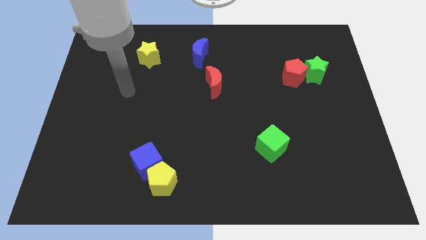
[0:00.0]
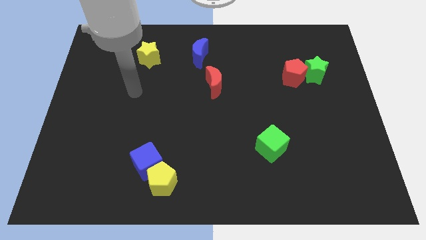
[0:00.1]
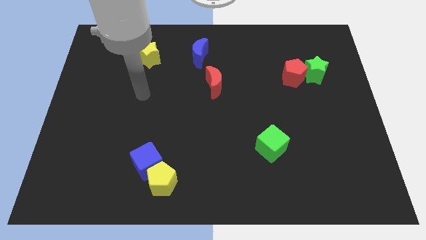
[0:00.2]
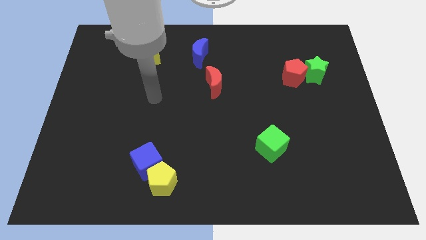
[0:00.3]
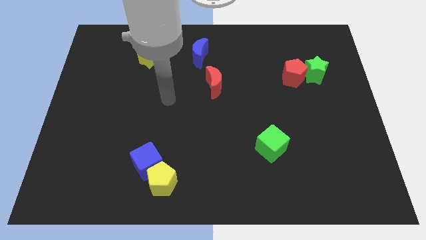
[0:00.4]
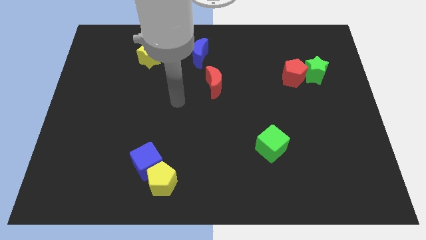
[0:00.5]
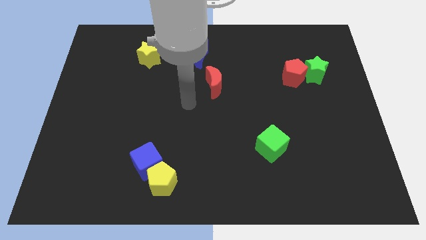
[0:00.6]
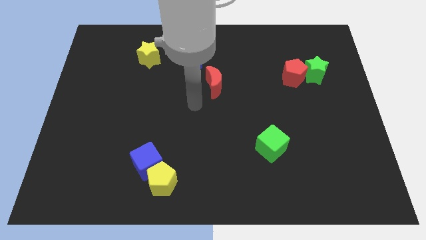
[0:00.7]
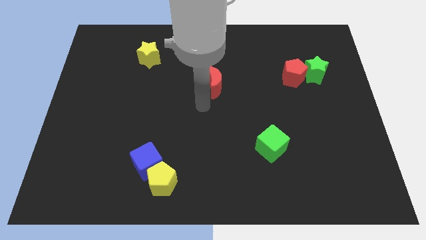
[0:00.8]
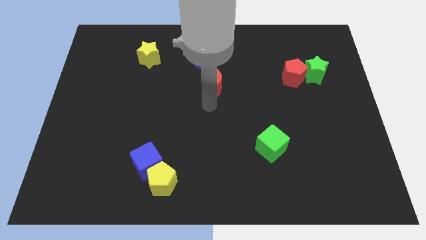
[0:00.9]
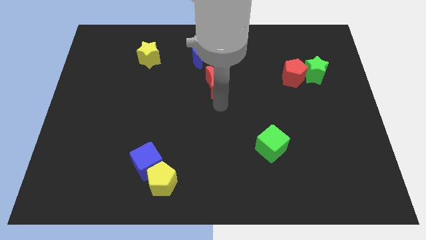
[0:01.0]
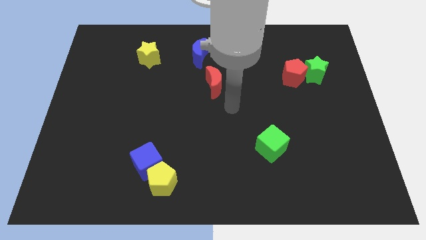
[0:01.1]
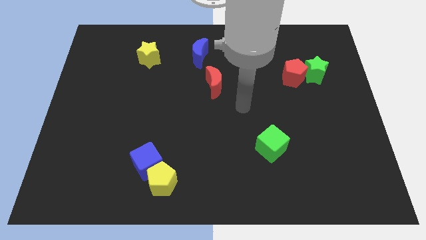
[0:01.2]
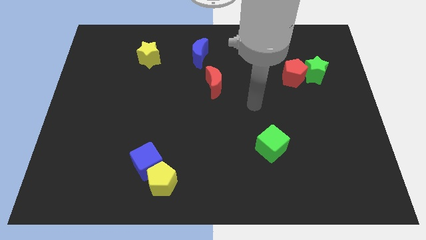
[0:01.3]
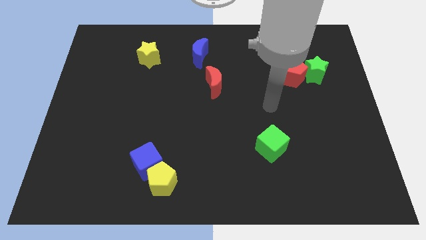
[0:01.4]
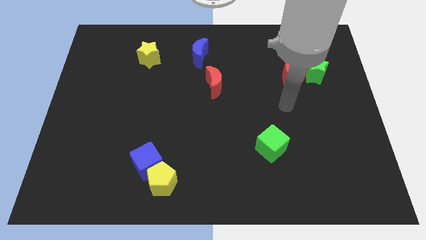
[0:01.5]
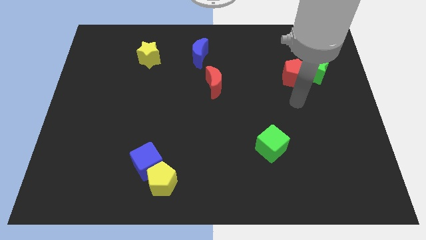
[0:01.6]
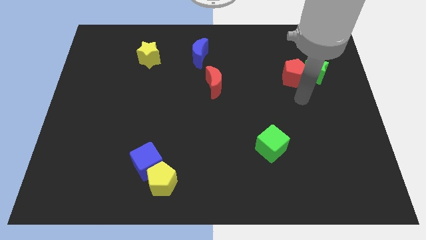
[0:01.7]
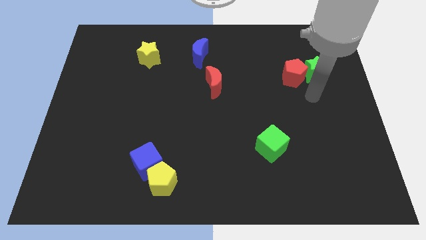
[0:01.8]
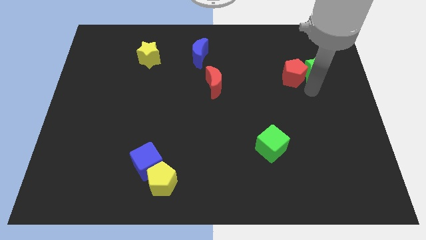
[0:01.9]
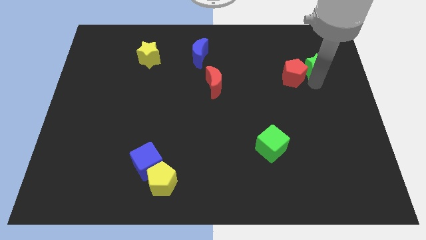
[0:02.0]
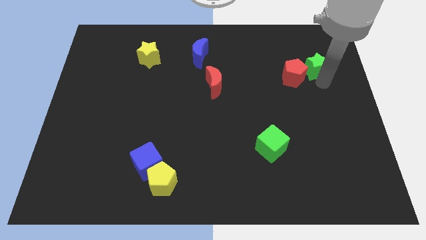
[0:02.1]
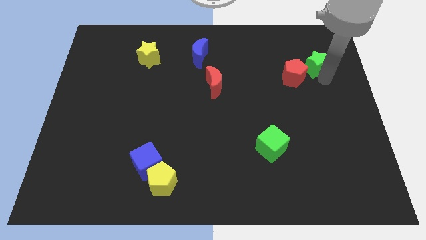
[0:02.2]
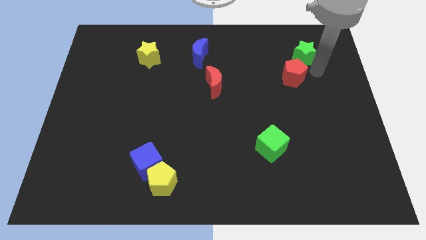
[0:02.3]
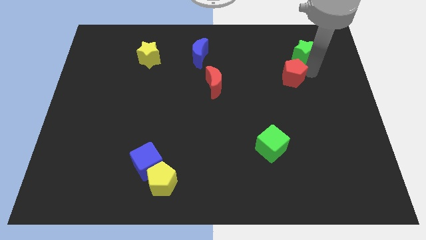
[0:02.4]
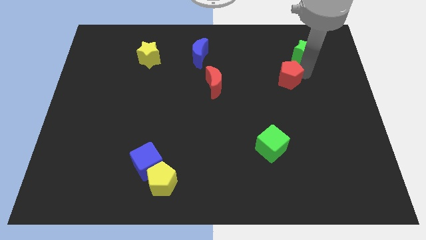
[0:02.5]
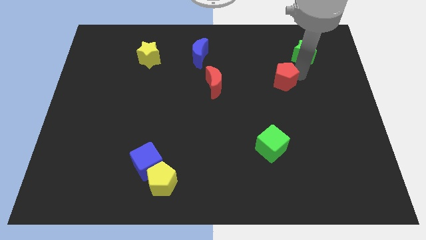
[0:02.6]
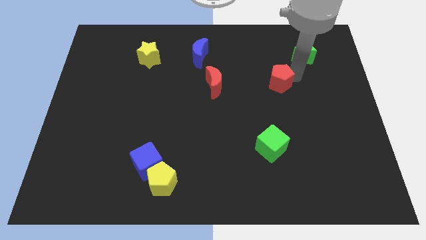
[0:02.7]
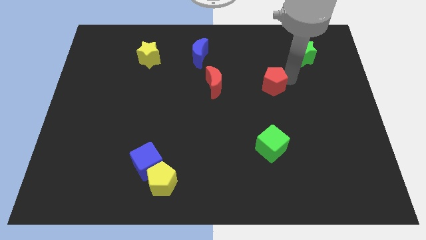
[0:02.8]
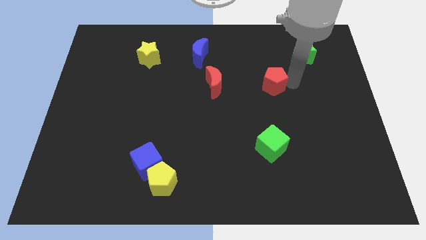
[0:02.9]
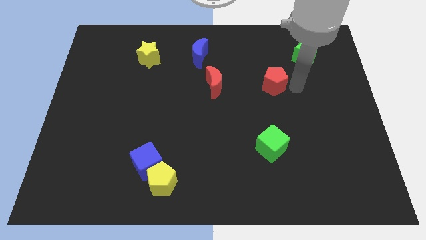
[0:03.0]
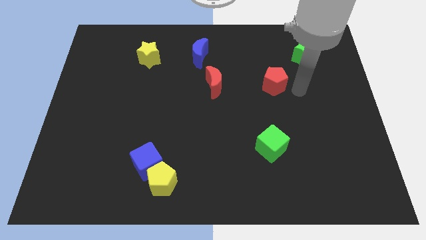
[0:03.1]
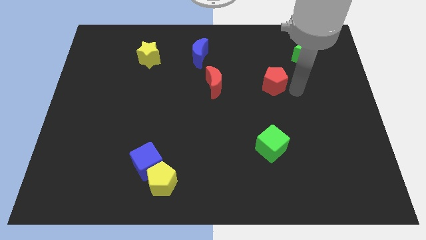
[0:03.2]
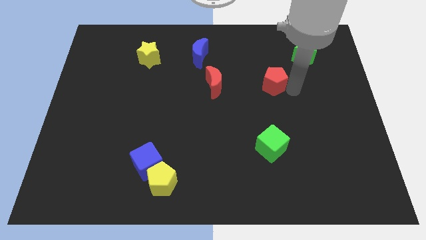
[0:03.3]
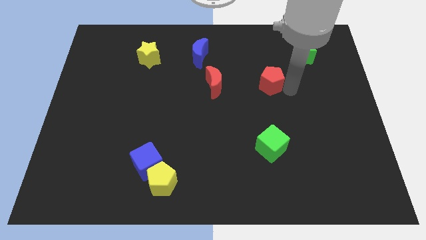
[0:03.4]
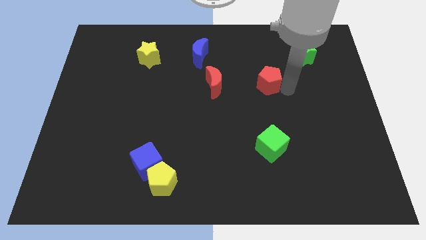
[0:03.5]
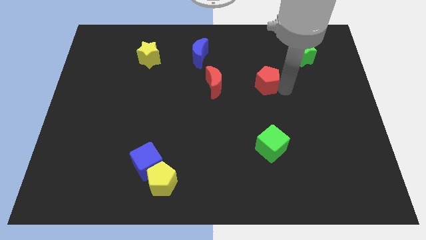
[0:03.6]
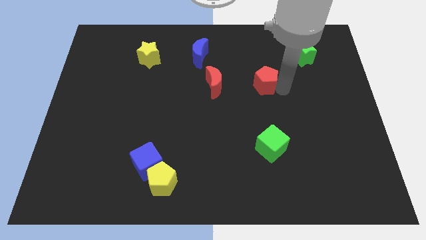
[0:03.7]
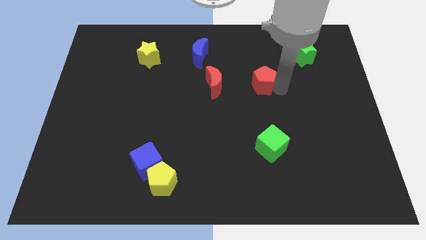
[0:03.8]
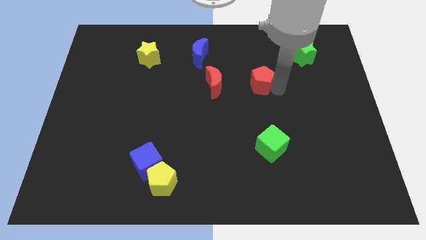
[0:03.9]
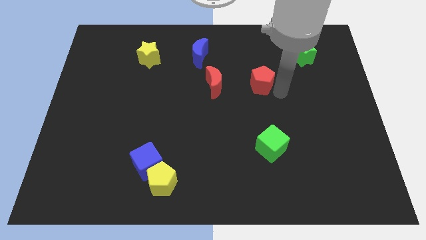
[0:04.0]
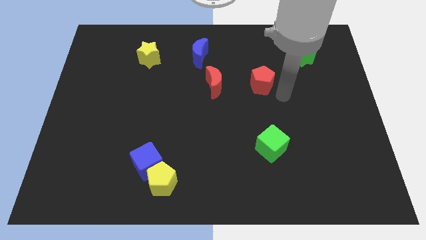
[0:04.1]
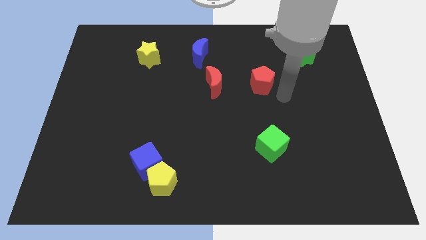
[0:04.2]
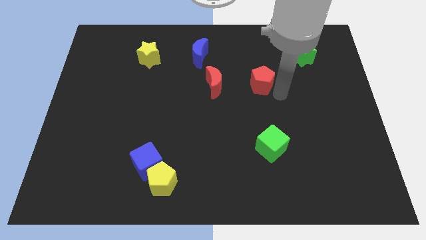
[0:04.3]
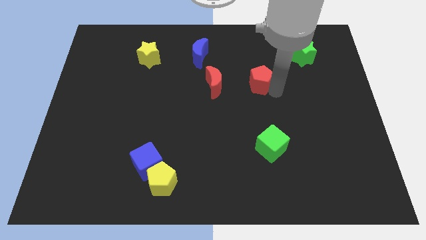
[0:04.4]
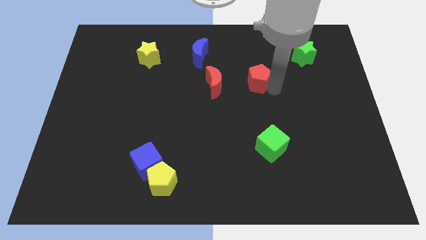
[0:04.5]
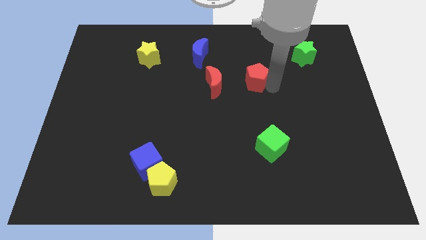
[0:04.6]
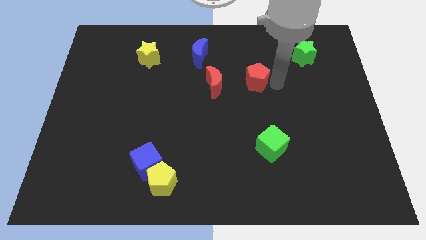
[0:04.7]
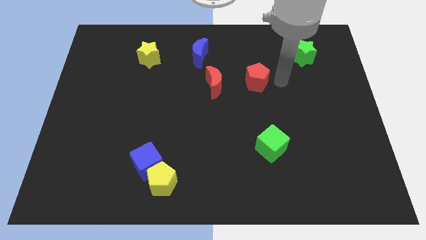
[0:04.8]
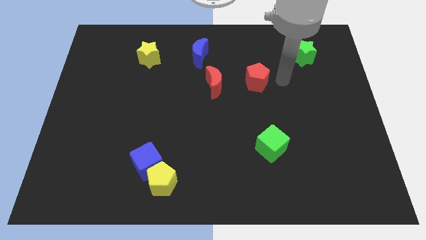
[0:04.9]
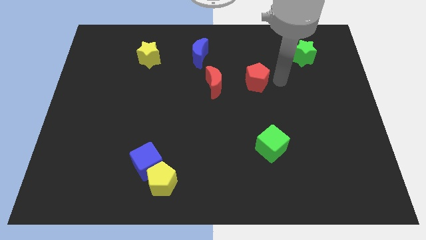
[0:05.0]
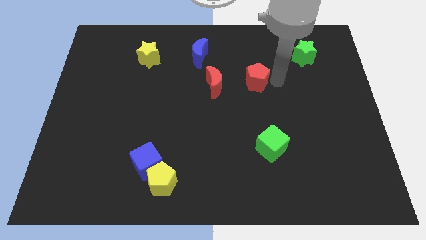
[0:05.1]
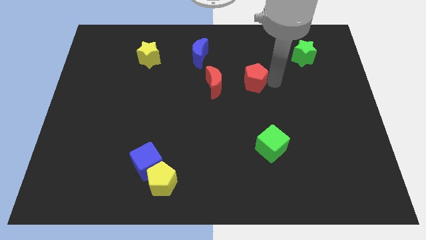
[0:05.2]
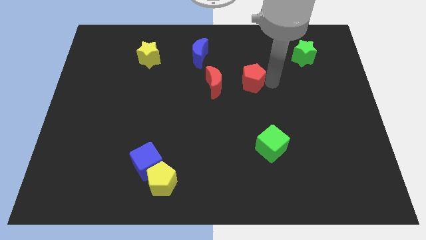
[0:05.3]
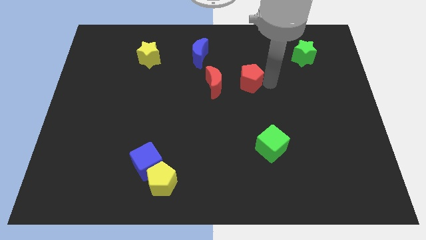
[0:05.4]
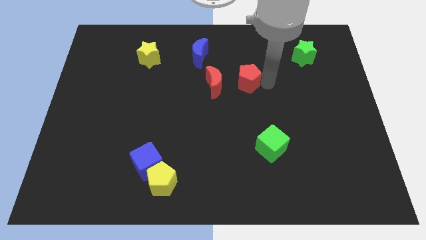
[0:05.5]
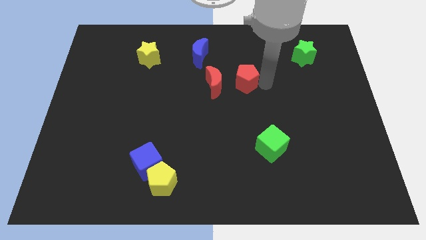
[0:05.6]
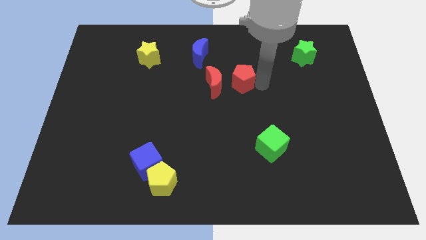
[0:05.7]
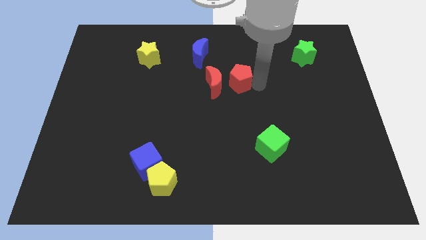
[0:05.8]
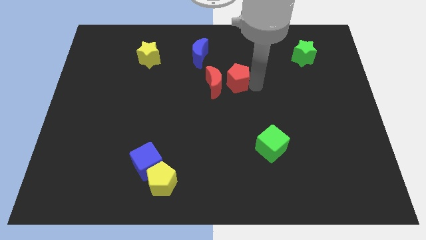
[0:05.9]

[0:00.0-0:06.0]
push the red pentagon to the red moon

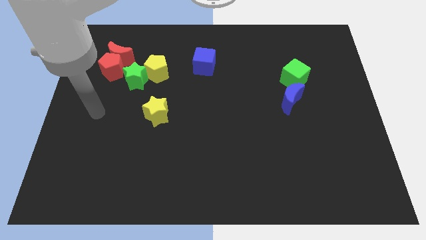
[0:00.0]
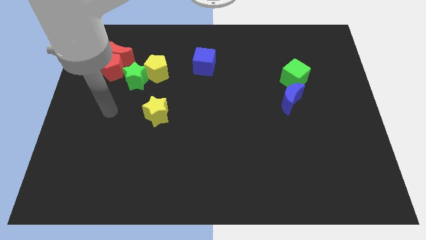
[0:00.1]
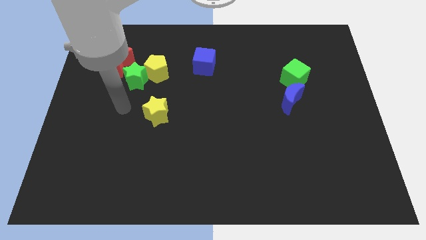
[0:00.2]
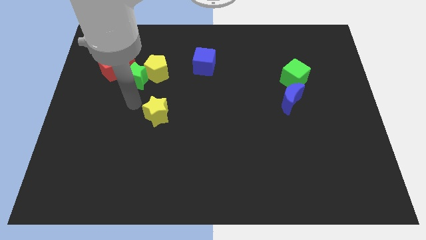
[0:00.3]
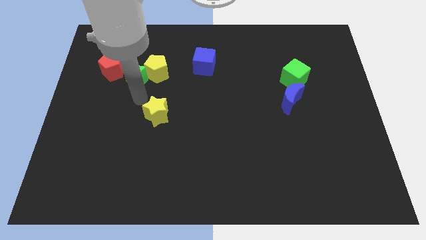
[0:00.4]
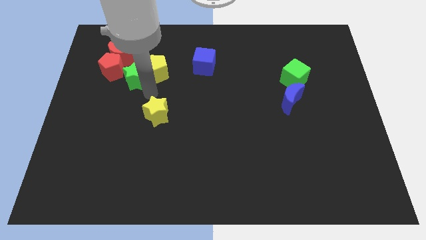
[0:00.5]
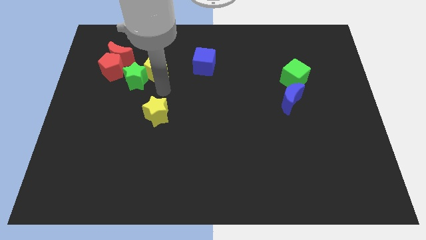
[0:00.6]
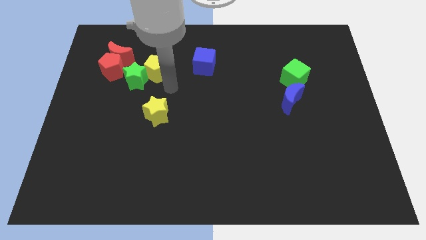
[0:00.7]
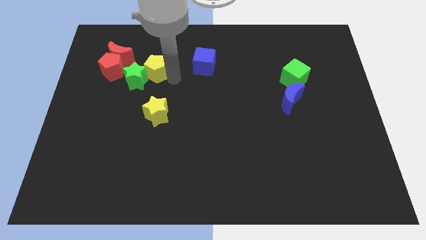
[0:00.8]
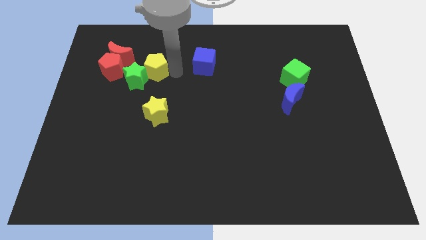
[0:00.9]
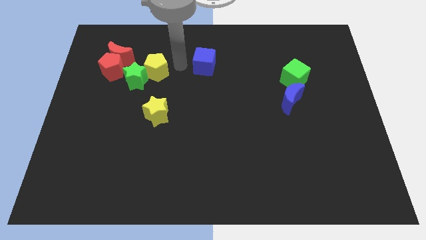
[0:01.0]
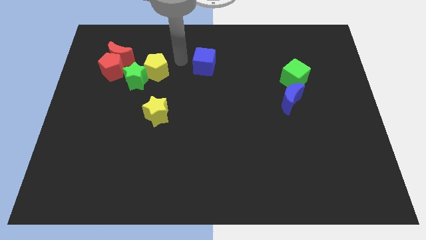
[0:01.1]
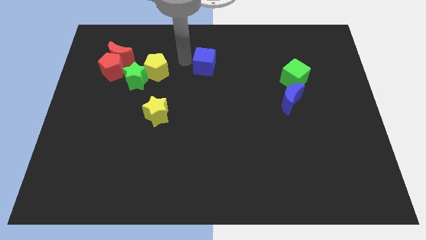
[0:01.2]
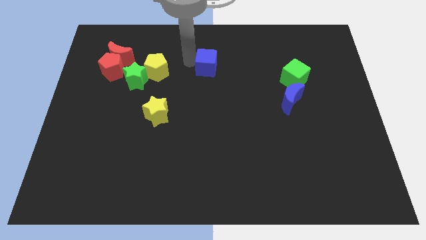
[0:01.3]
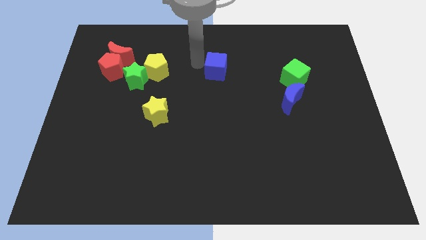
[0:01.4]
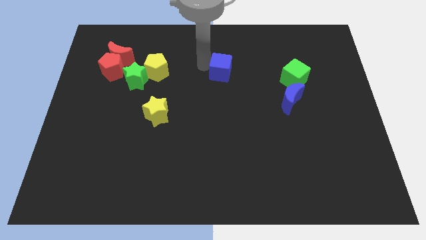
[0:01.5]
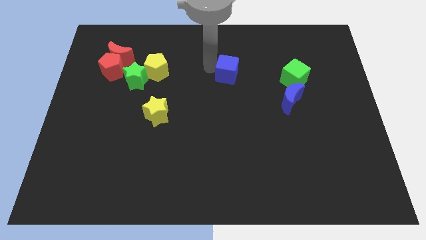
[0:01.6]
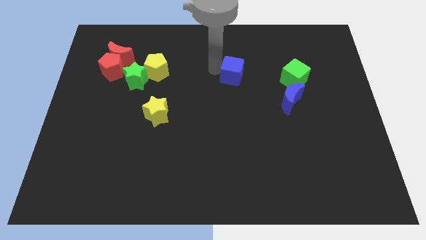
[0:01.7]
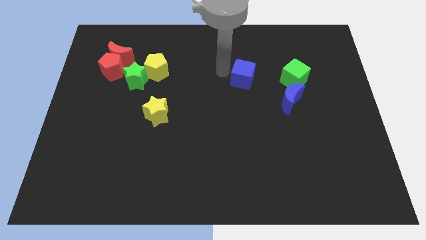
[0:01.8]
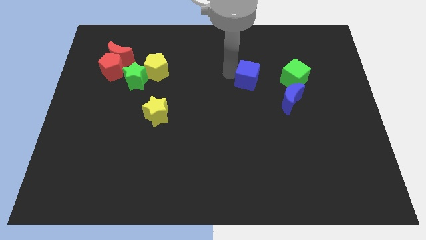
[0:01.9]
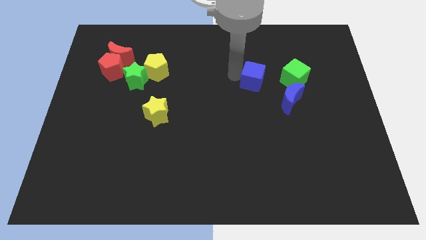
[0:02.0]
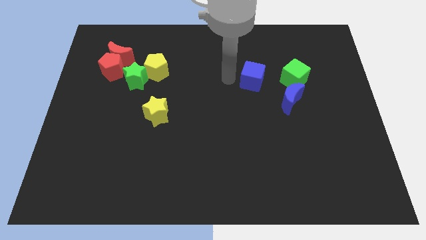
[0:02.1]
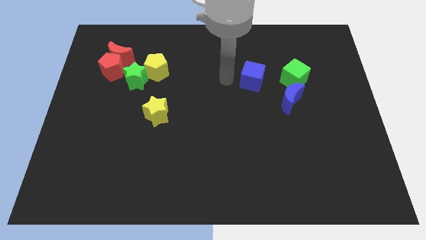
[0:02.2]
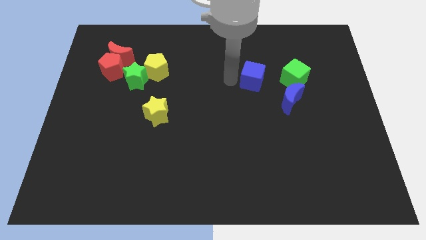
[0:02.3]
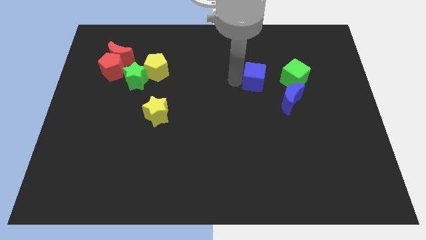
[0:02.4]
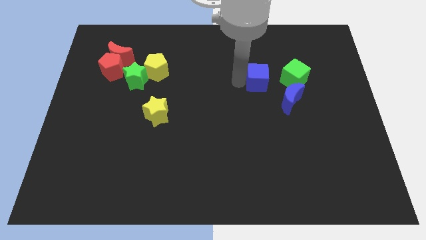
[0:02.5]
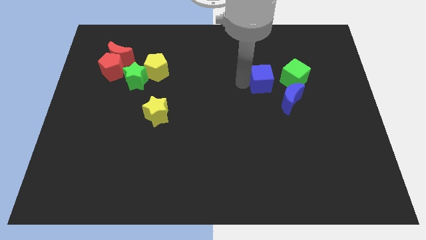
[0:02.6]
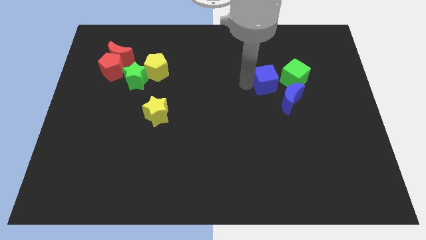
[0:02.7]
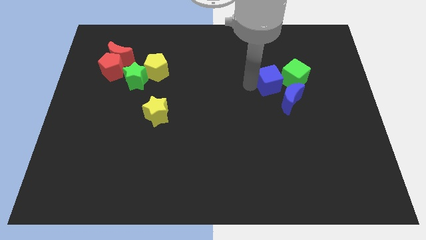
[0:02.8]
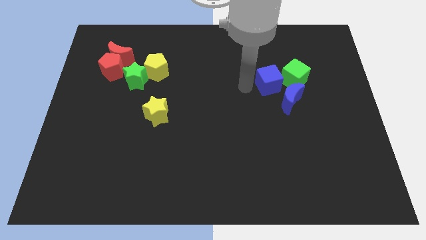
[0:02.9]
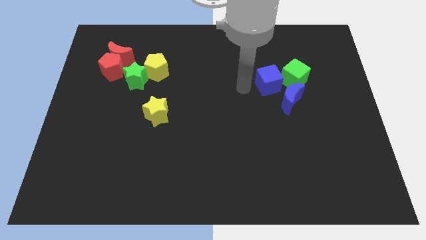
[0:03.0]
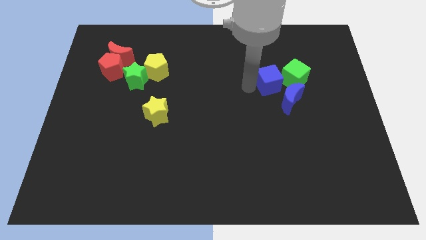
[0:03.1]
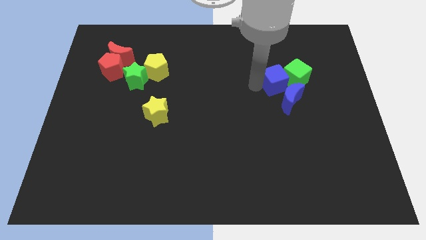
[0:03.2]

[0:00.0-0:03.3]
push the blue cube to the green cube
